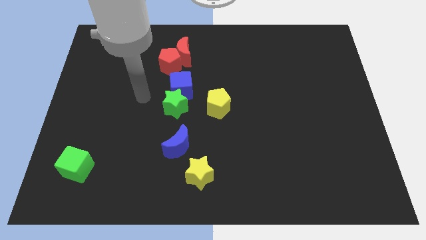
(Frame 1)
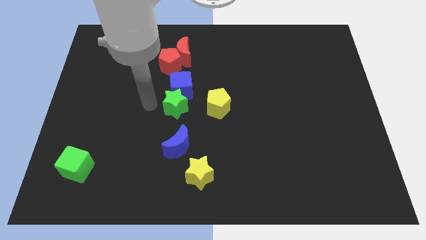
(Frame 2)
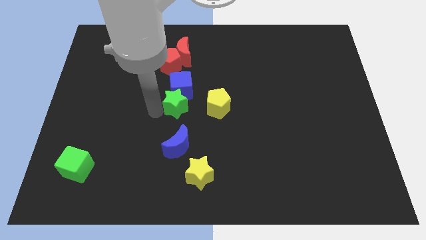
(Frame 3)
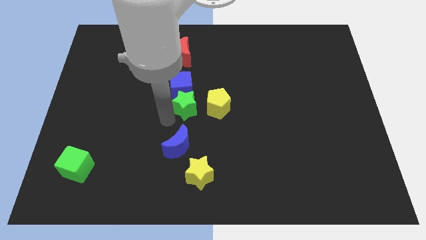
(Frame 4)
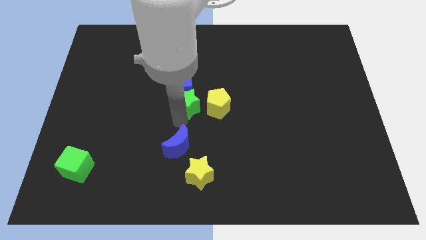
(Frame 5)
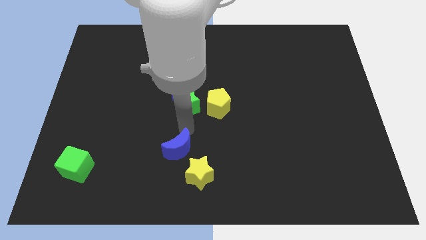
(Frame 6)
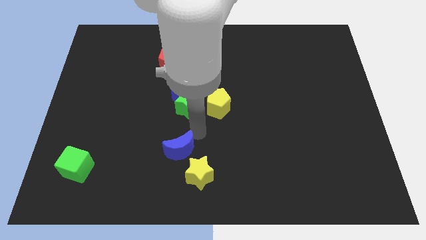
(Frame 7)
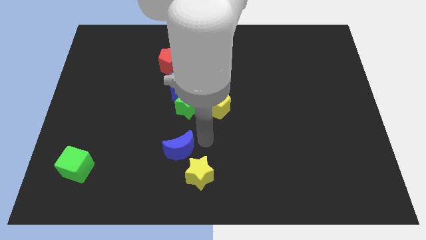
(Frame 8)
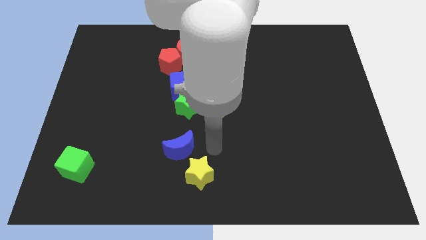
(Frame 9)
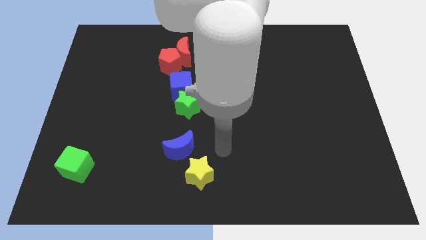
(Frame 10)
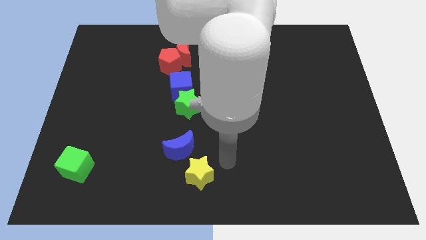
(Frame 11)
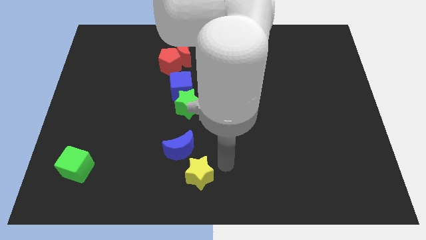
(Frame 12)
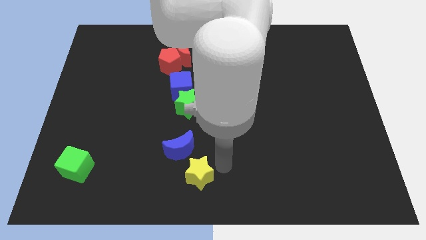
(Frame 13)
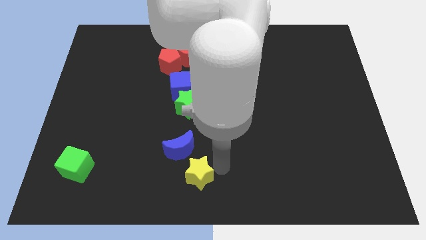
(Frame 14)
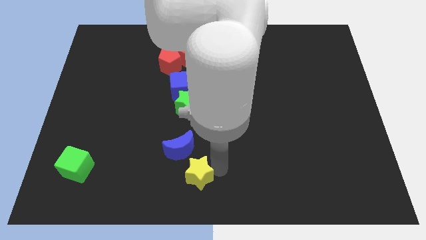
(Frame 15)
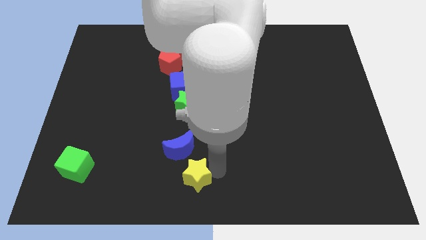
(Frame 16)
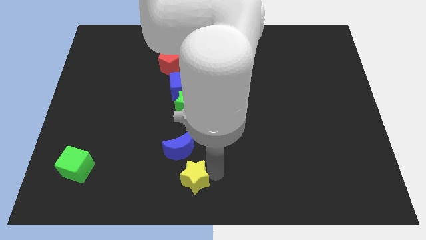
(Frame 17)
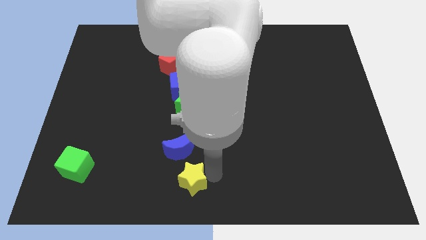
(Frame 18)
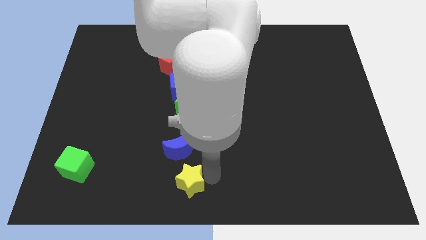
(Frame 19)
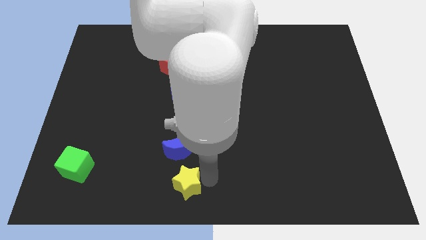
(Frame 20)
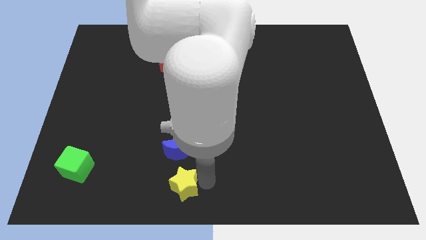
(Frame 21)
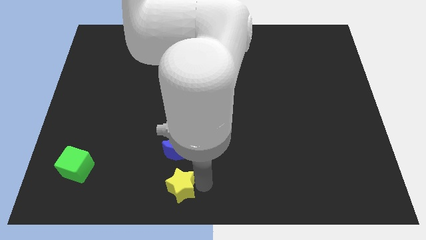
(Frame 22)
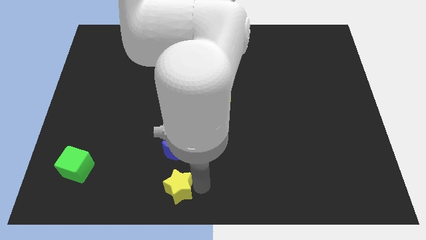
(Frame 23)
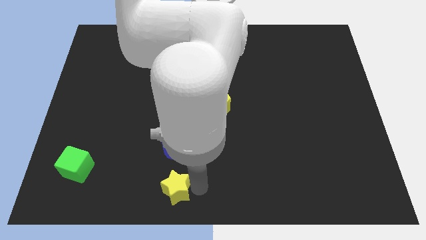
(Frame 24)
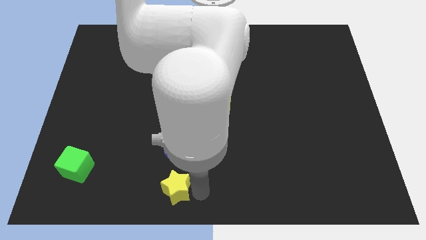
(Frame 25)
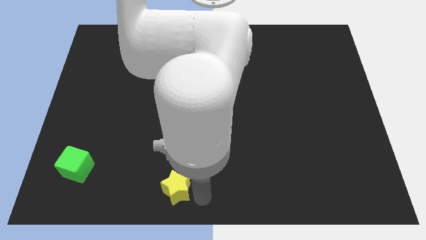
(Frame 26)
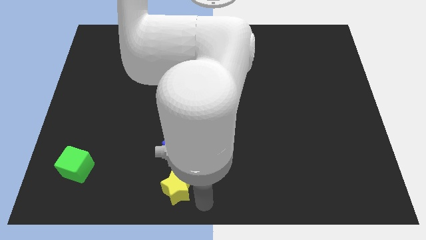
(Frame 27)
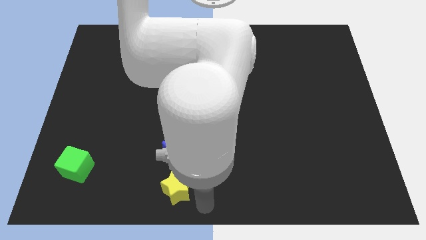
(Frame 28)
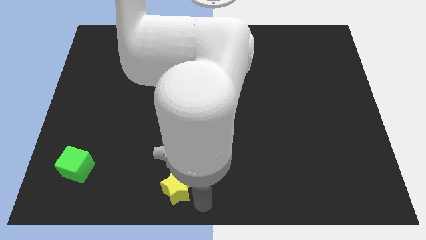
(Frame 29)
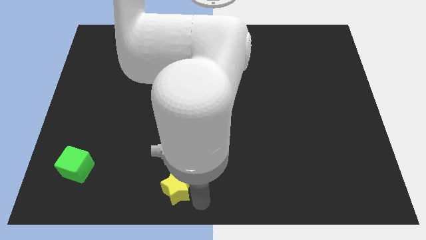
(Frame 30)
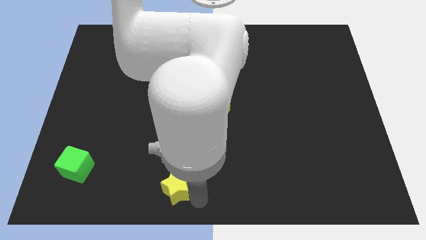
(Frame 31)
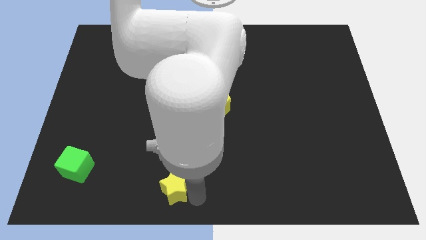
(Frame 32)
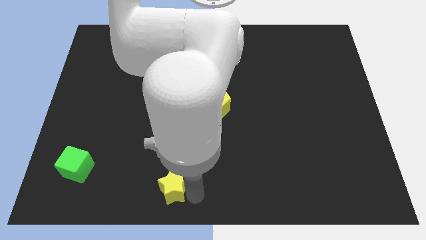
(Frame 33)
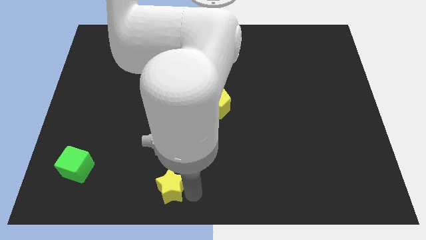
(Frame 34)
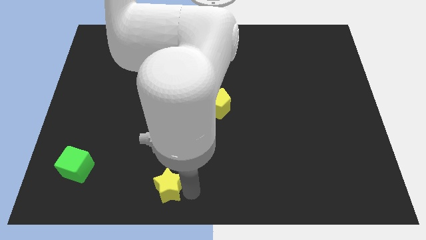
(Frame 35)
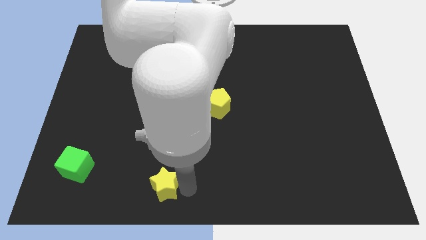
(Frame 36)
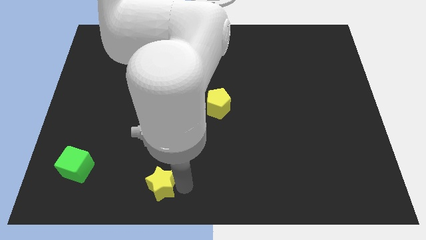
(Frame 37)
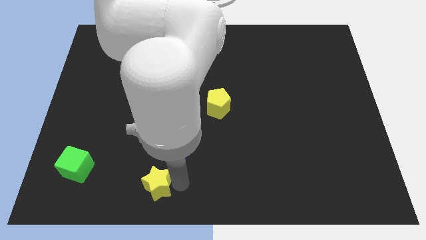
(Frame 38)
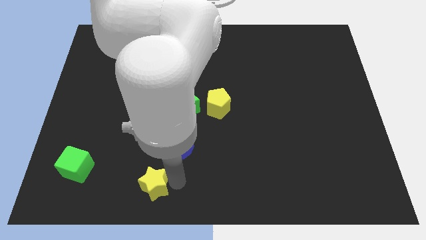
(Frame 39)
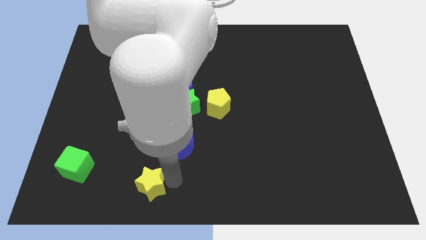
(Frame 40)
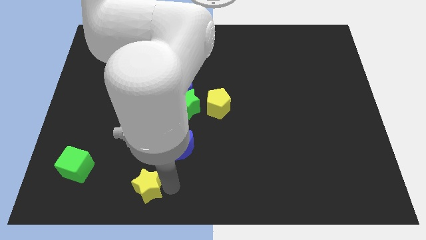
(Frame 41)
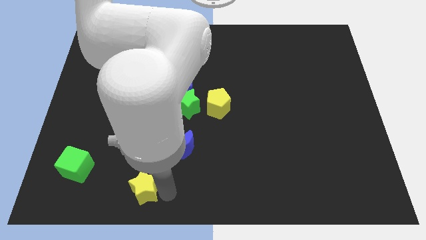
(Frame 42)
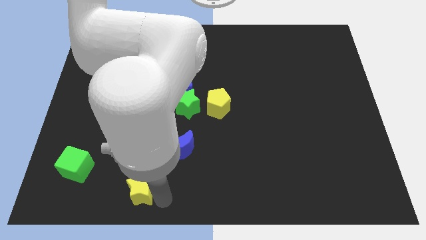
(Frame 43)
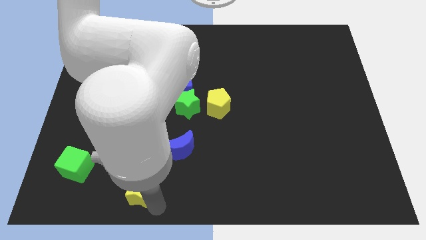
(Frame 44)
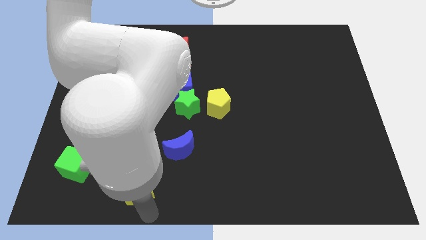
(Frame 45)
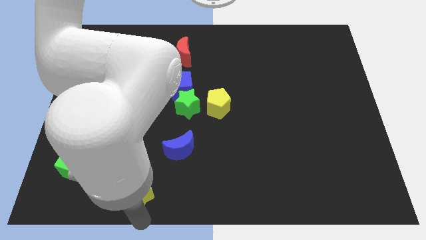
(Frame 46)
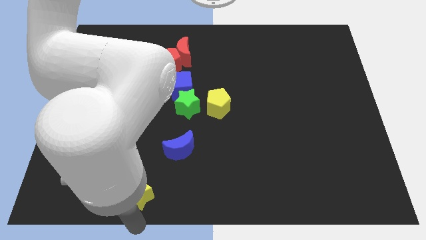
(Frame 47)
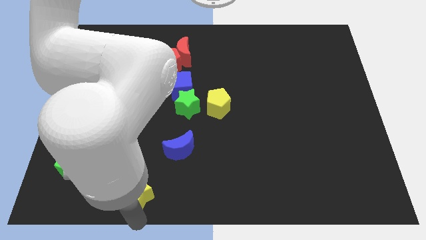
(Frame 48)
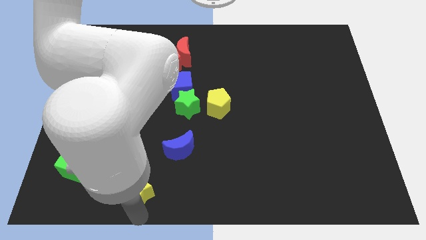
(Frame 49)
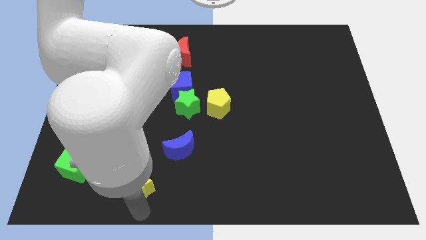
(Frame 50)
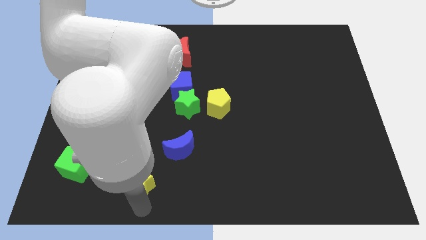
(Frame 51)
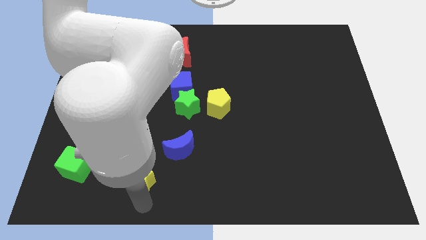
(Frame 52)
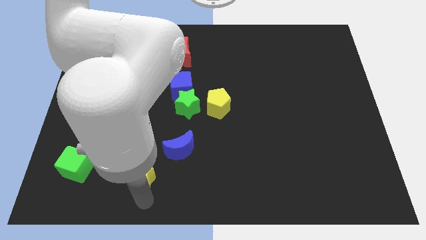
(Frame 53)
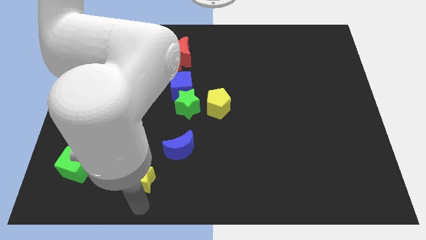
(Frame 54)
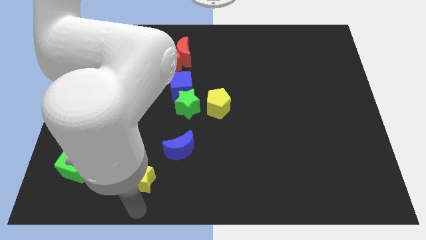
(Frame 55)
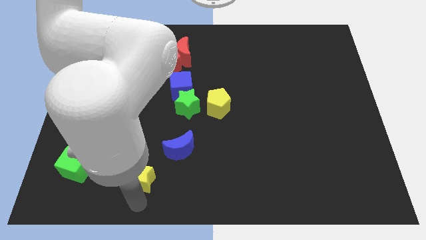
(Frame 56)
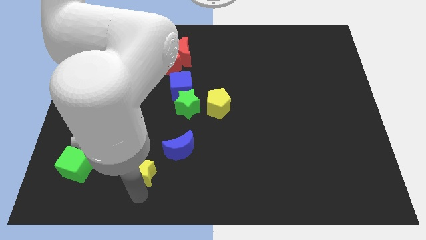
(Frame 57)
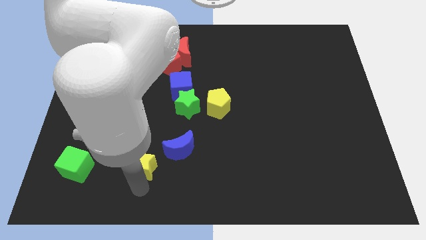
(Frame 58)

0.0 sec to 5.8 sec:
slide the yellow star just left of the blue moon

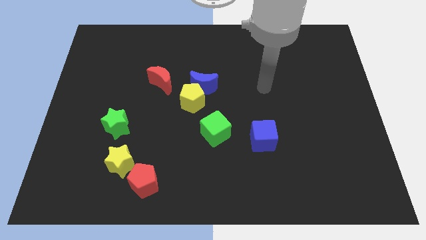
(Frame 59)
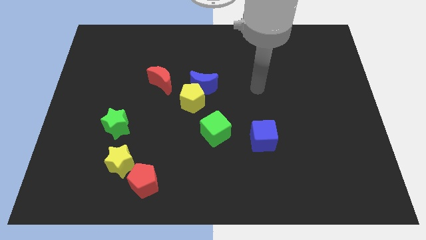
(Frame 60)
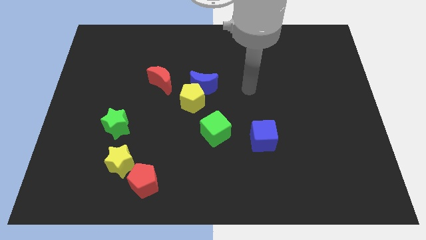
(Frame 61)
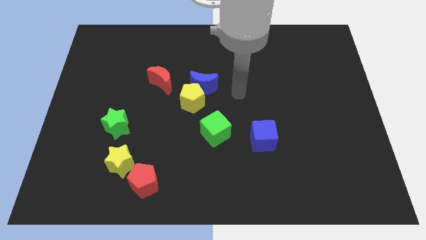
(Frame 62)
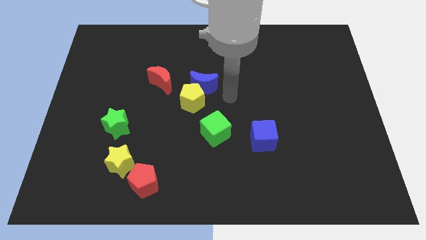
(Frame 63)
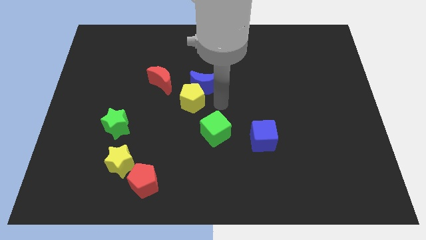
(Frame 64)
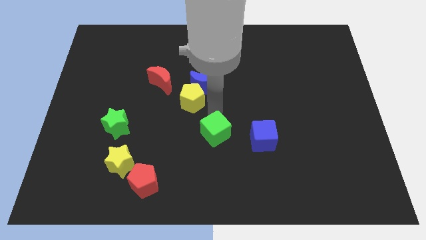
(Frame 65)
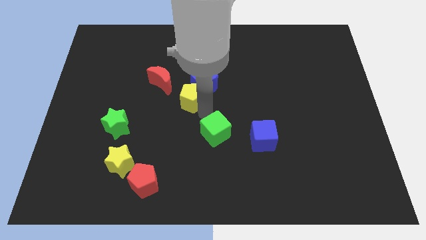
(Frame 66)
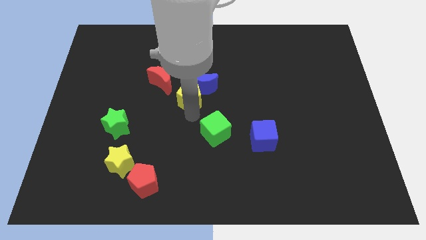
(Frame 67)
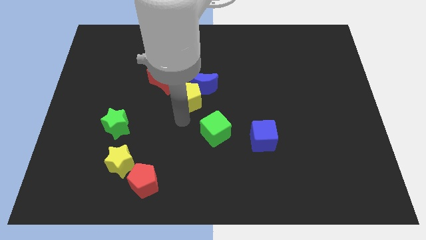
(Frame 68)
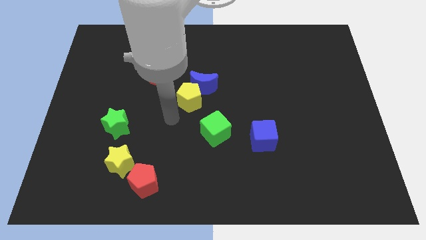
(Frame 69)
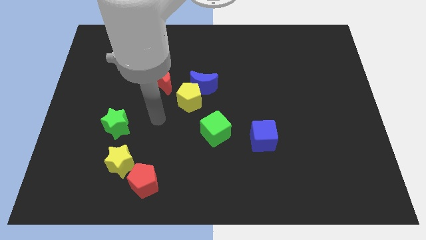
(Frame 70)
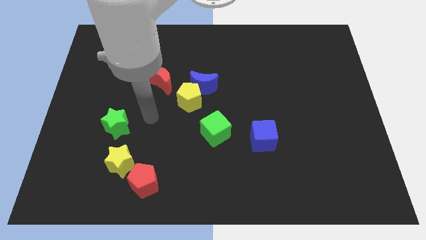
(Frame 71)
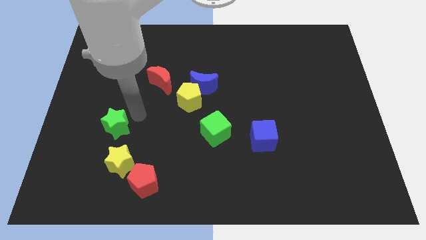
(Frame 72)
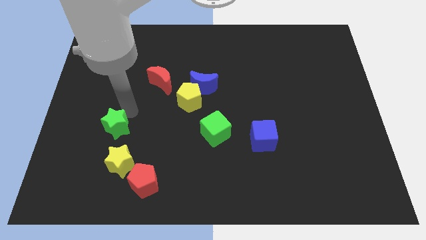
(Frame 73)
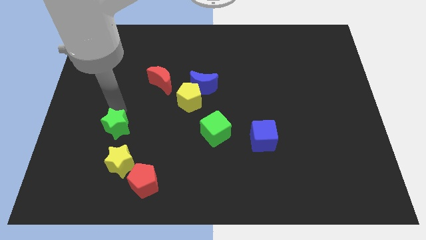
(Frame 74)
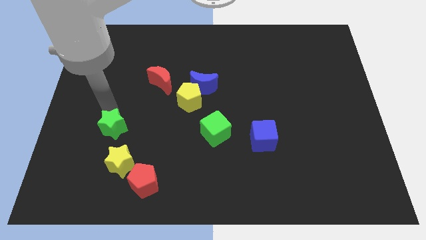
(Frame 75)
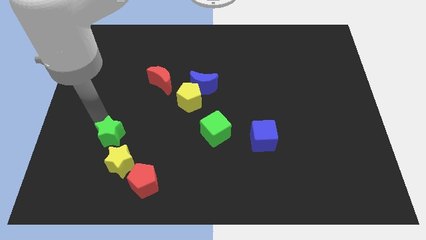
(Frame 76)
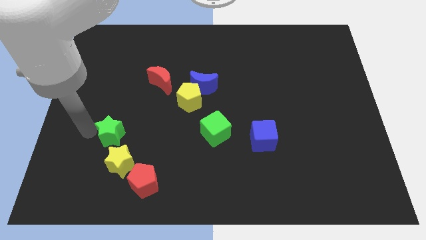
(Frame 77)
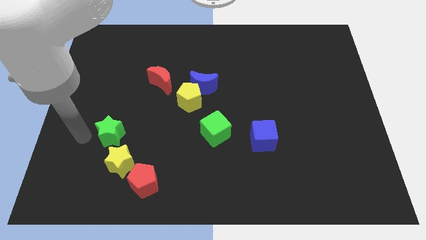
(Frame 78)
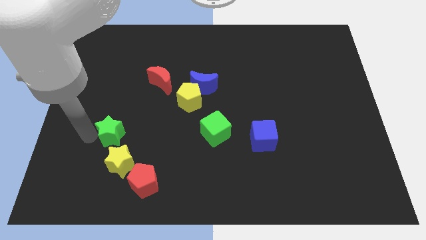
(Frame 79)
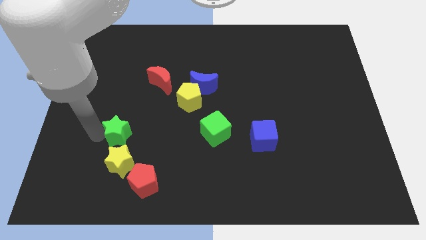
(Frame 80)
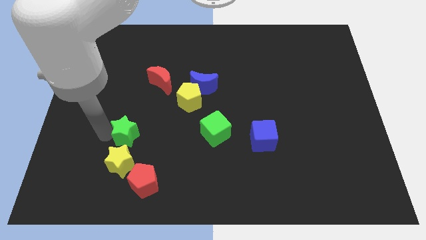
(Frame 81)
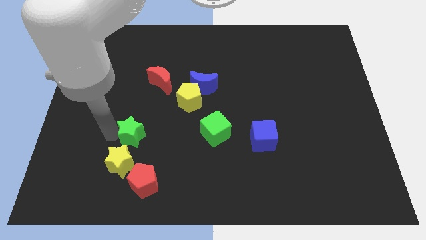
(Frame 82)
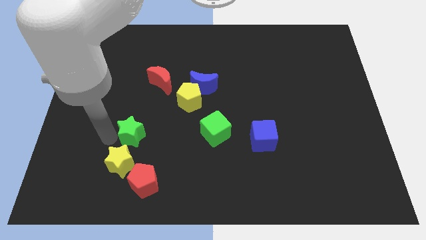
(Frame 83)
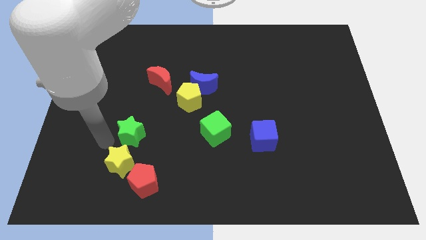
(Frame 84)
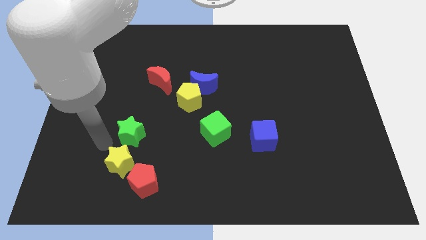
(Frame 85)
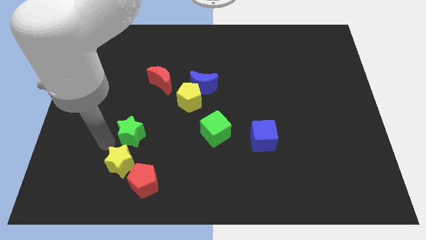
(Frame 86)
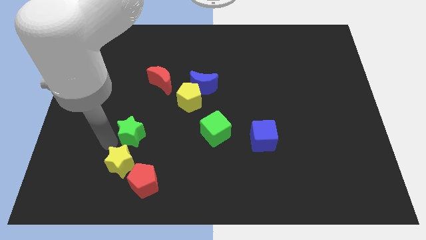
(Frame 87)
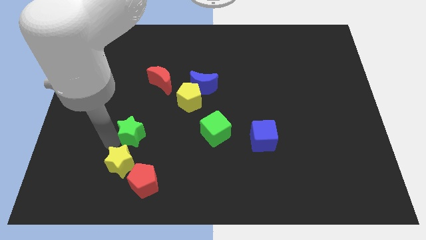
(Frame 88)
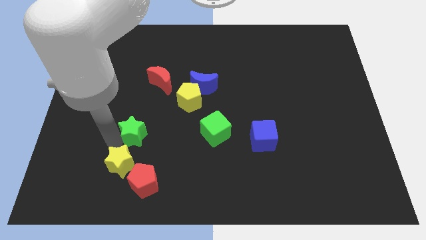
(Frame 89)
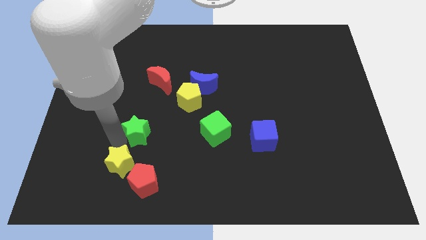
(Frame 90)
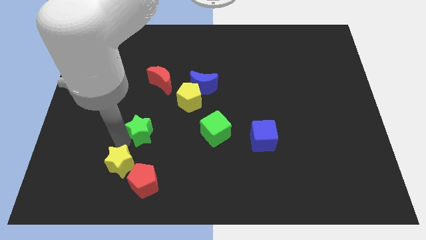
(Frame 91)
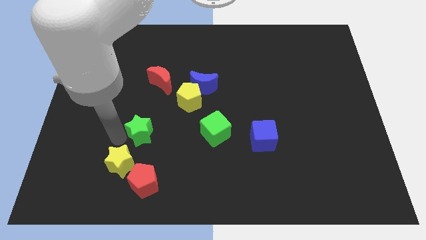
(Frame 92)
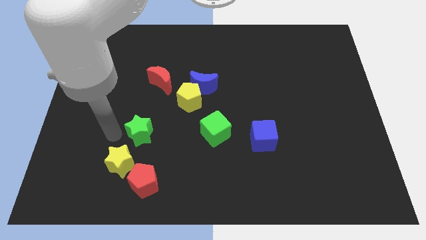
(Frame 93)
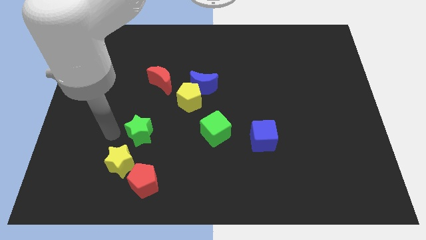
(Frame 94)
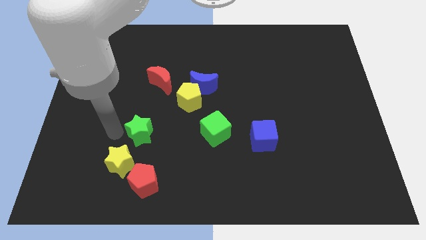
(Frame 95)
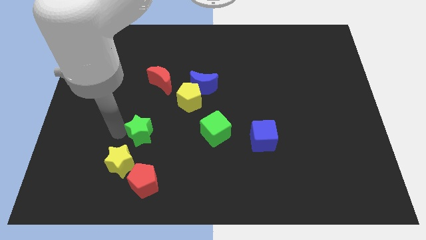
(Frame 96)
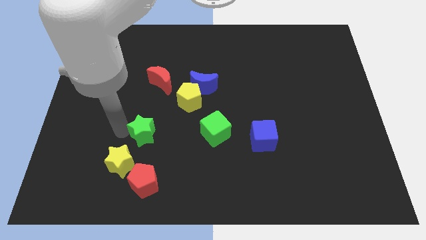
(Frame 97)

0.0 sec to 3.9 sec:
push the green star to the left side of the green cube
